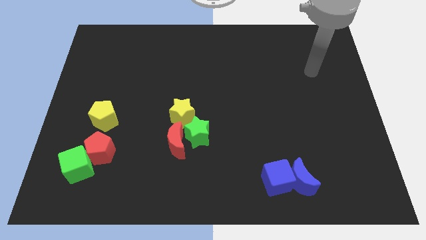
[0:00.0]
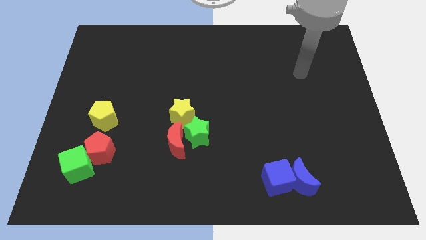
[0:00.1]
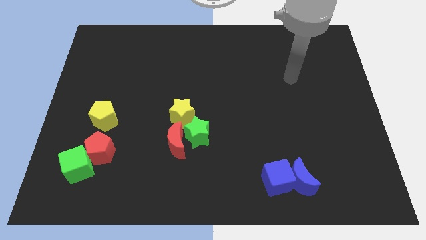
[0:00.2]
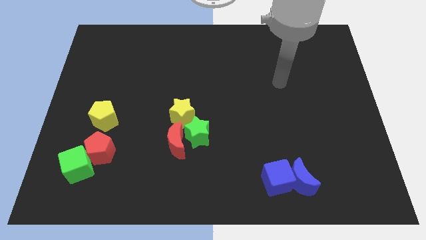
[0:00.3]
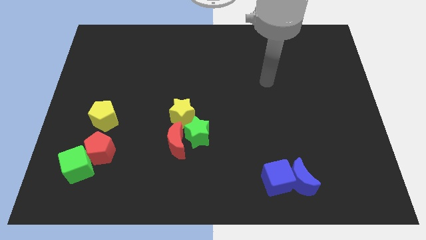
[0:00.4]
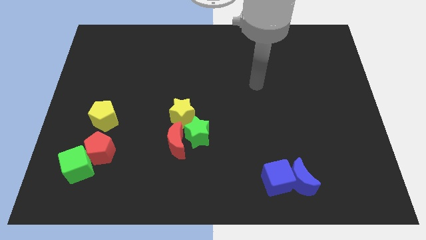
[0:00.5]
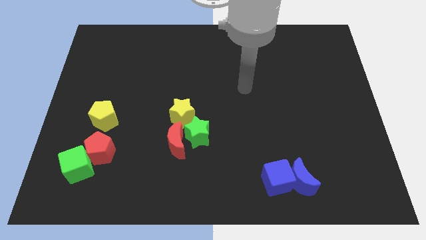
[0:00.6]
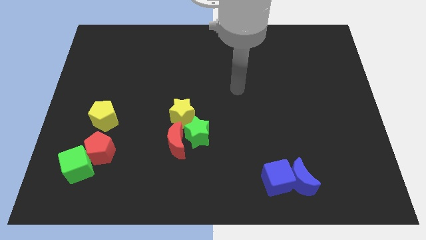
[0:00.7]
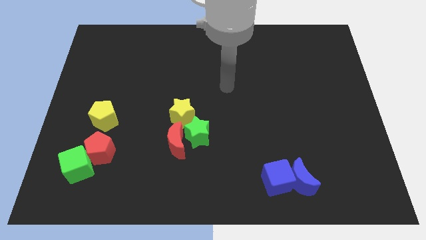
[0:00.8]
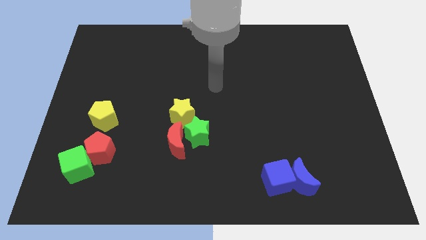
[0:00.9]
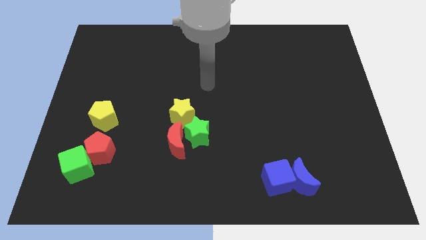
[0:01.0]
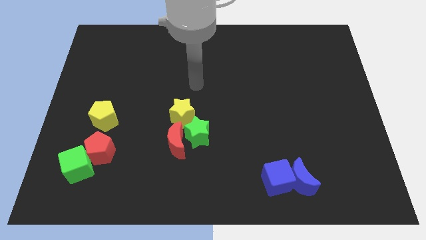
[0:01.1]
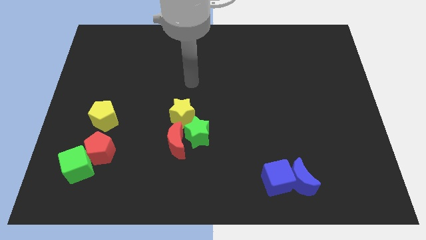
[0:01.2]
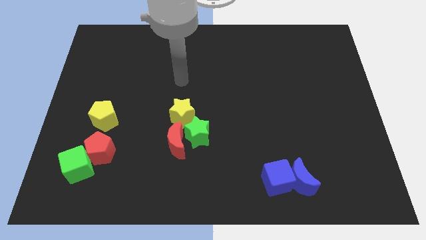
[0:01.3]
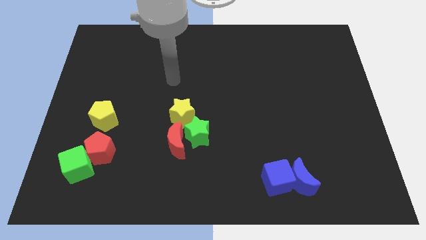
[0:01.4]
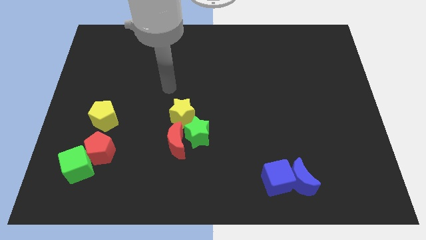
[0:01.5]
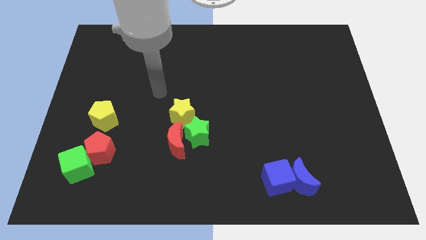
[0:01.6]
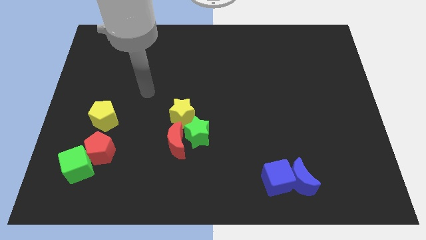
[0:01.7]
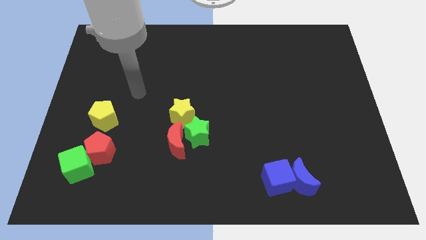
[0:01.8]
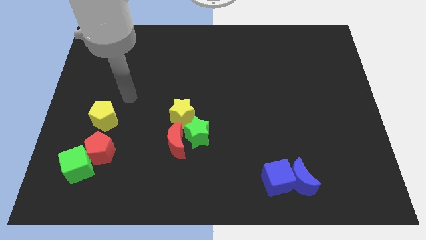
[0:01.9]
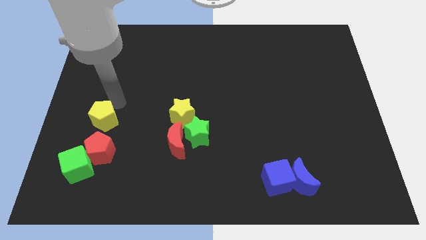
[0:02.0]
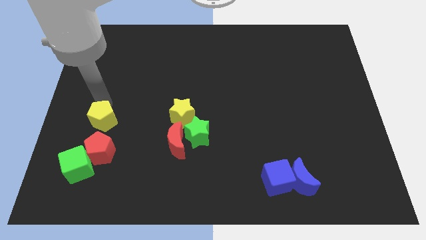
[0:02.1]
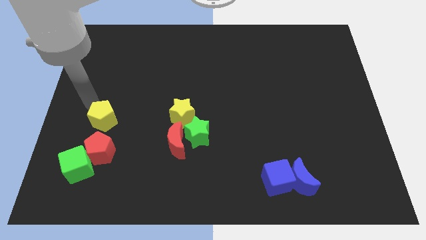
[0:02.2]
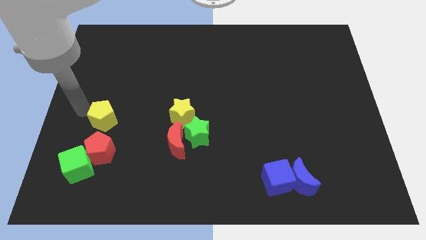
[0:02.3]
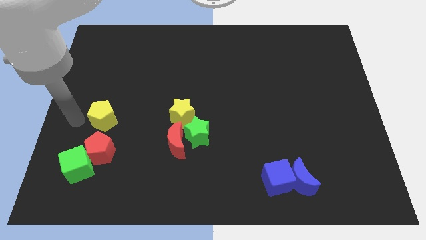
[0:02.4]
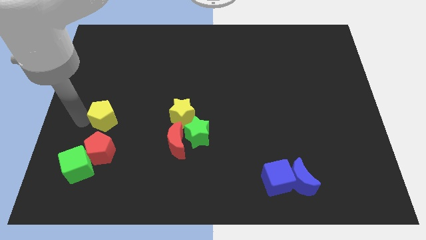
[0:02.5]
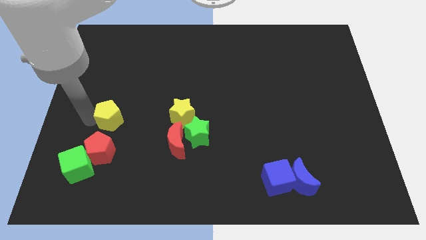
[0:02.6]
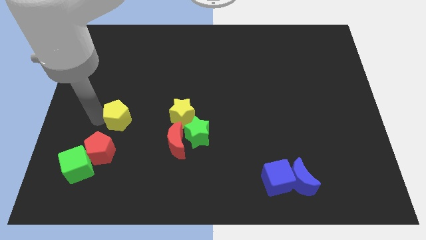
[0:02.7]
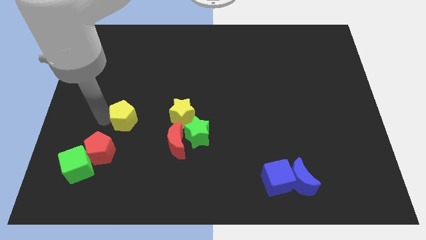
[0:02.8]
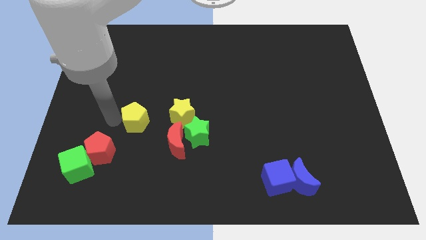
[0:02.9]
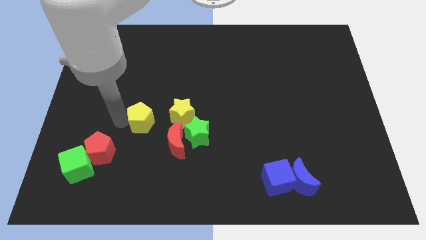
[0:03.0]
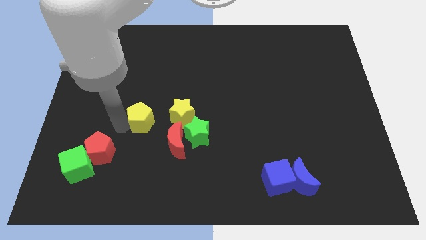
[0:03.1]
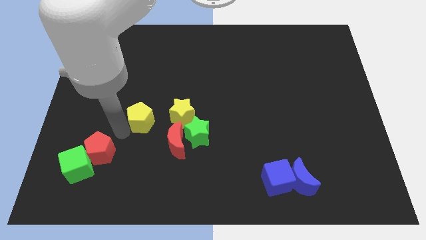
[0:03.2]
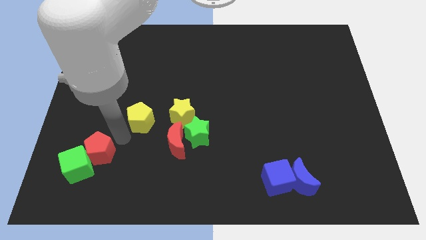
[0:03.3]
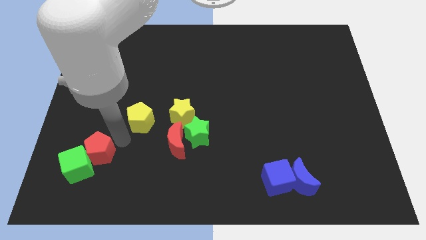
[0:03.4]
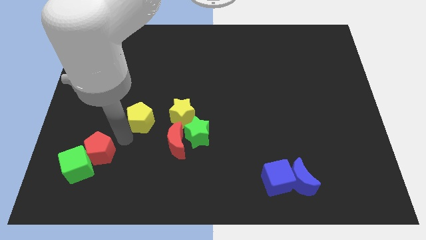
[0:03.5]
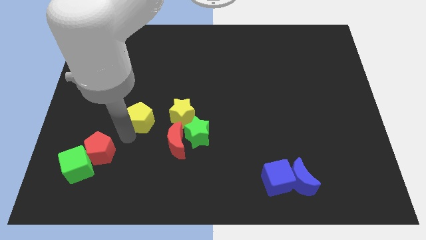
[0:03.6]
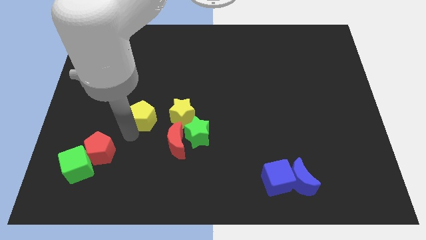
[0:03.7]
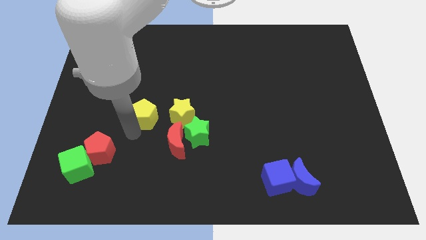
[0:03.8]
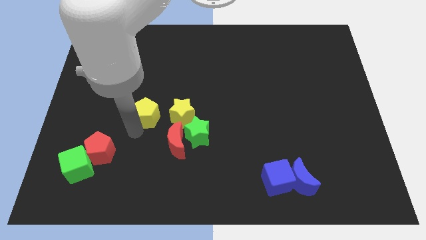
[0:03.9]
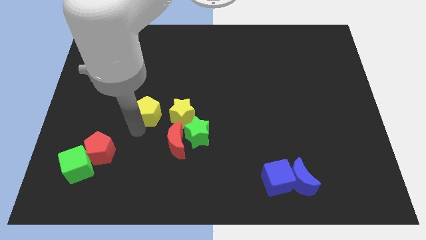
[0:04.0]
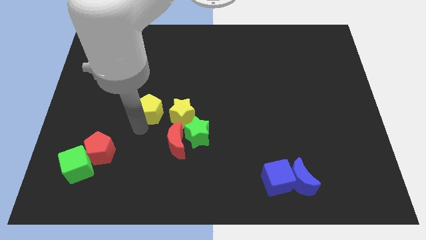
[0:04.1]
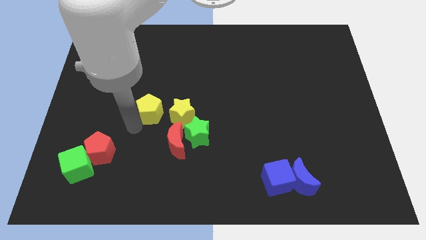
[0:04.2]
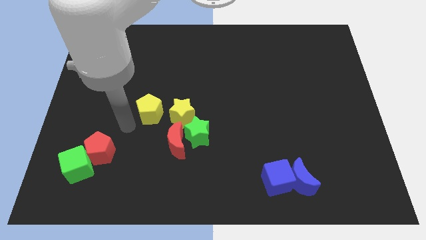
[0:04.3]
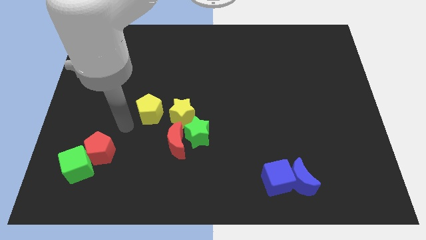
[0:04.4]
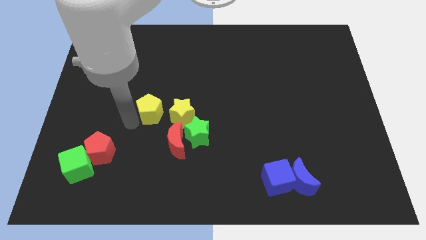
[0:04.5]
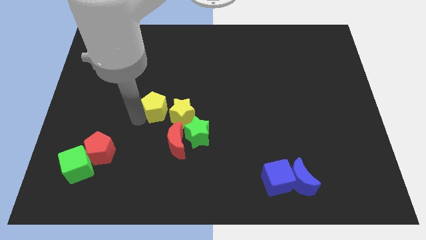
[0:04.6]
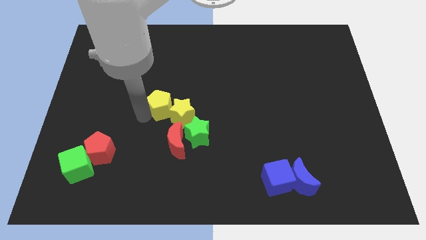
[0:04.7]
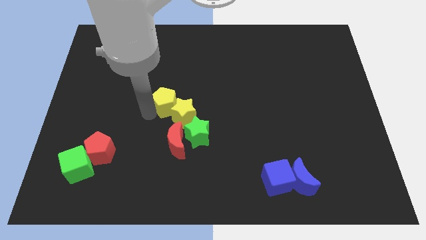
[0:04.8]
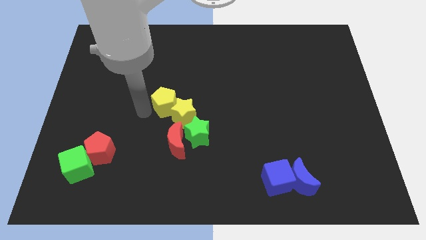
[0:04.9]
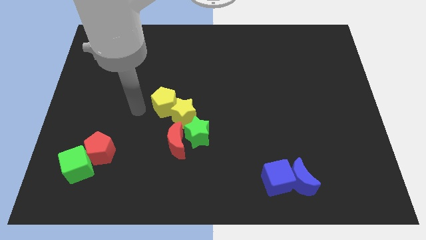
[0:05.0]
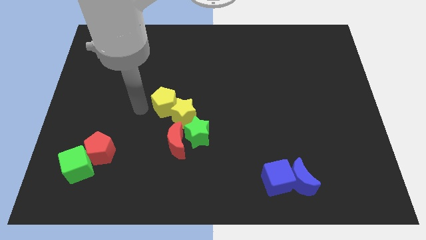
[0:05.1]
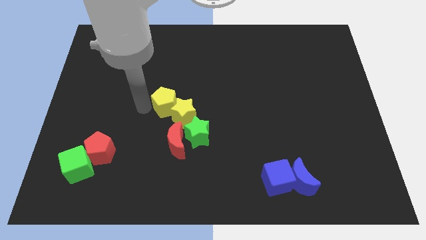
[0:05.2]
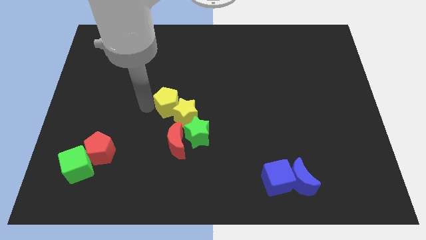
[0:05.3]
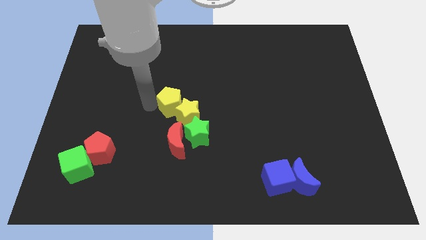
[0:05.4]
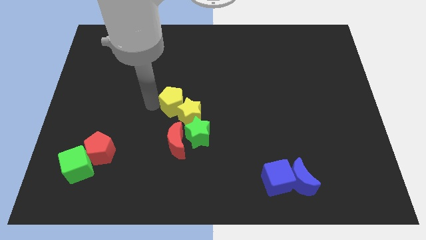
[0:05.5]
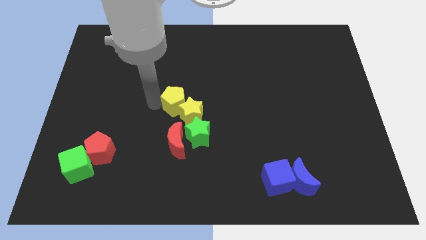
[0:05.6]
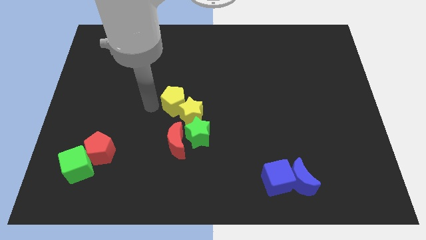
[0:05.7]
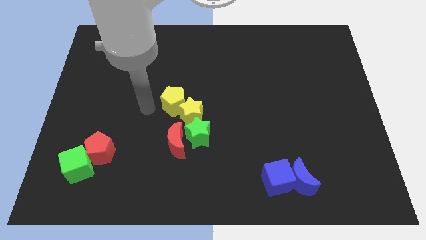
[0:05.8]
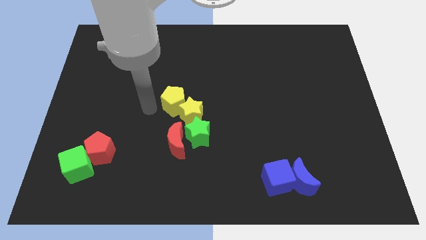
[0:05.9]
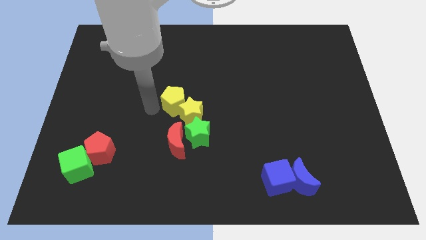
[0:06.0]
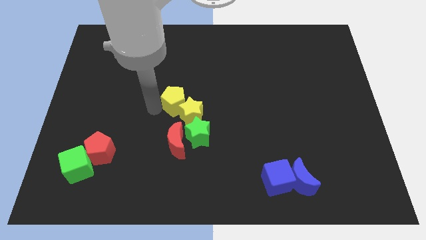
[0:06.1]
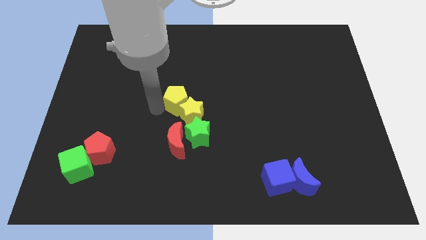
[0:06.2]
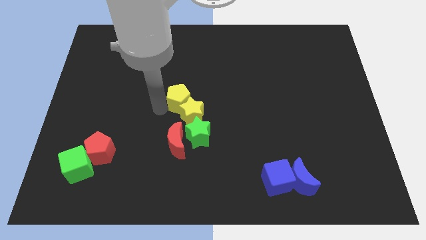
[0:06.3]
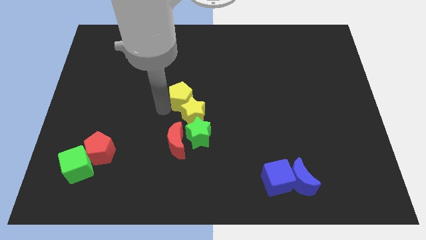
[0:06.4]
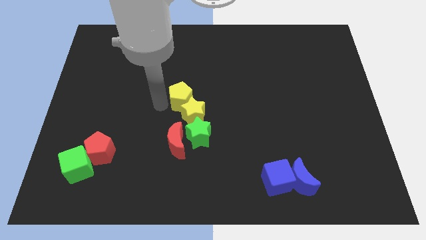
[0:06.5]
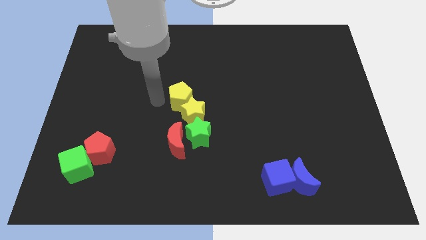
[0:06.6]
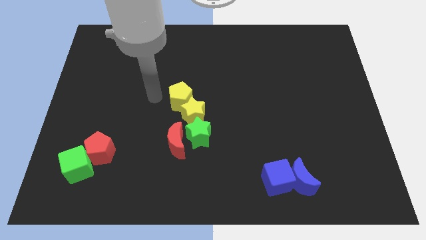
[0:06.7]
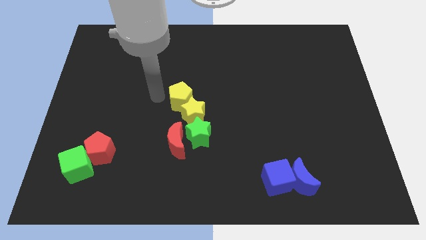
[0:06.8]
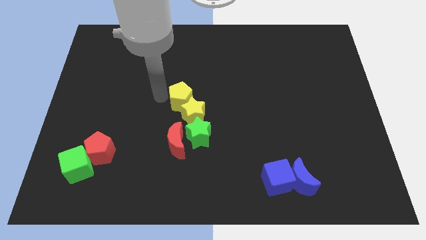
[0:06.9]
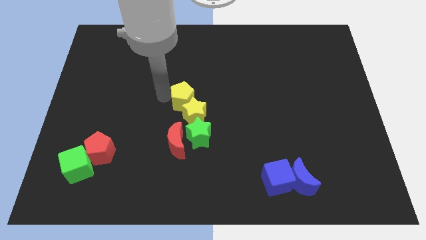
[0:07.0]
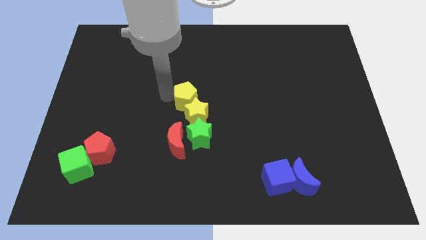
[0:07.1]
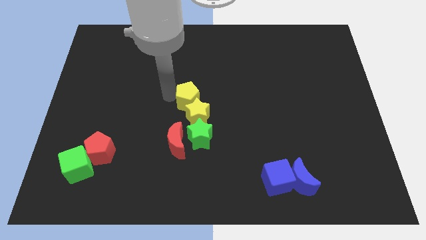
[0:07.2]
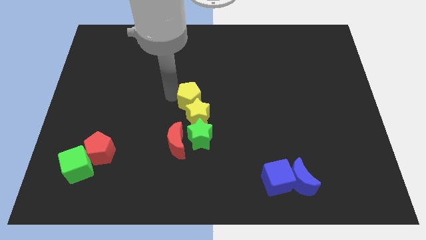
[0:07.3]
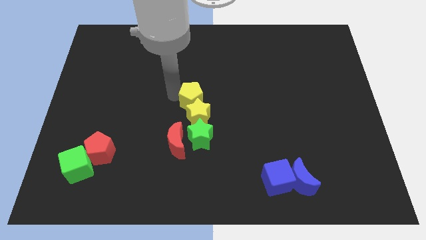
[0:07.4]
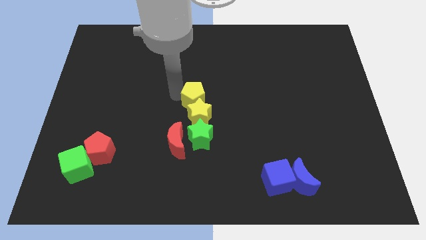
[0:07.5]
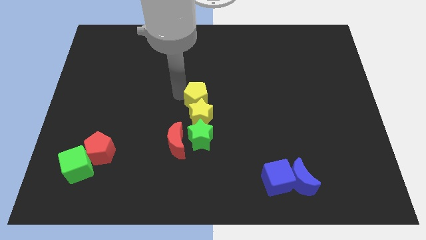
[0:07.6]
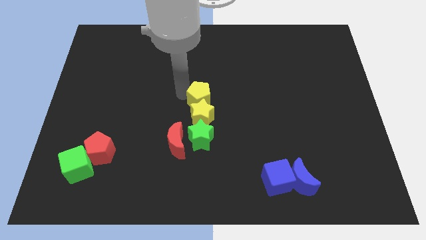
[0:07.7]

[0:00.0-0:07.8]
move the yellow pentagon to the right

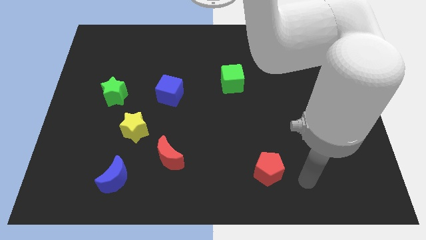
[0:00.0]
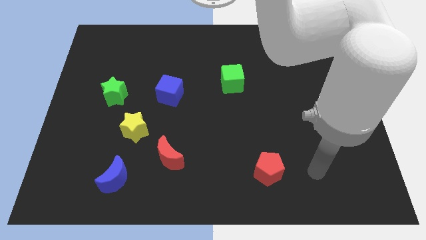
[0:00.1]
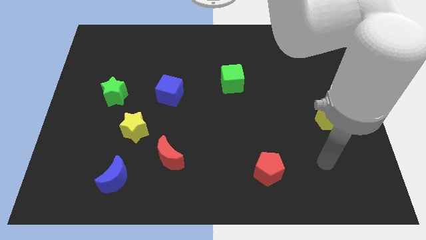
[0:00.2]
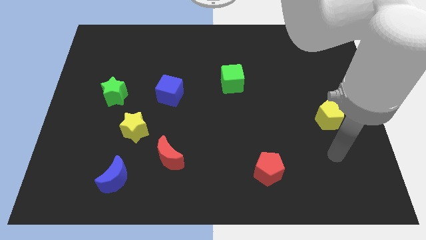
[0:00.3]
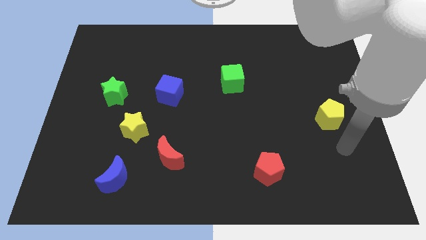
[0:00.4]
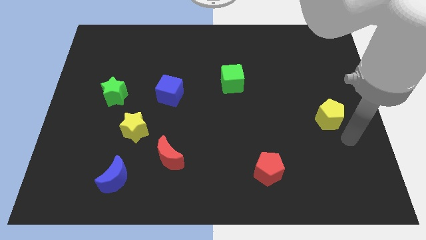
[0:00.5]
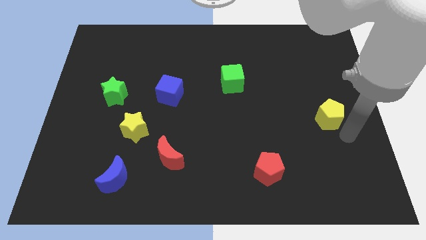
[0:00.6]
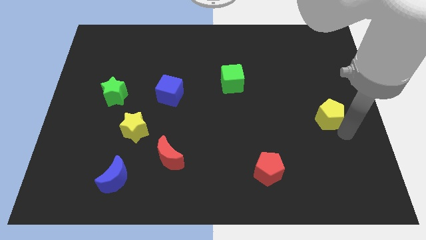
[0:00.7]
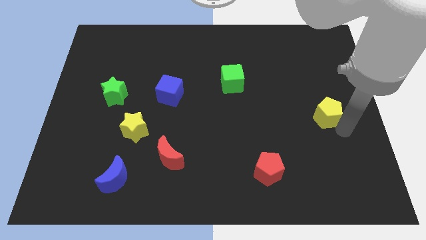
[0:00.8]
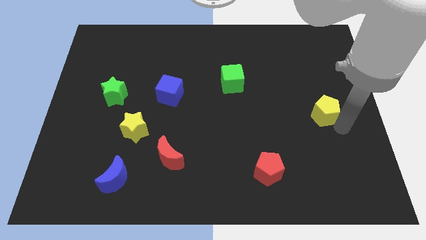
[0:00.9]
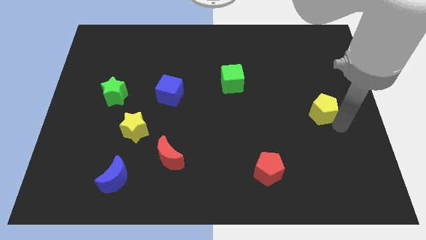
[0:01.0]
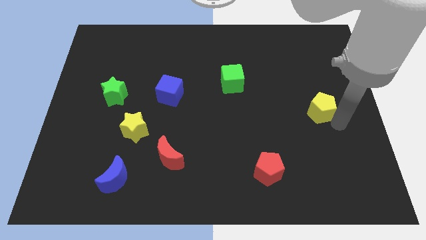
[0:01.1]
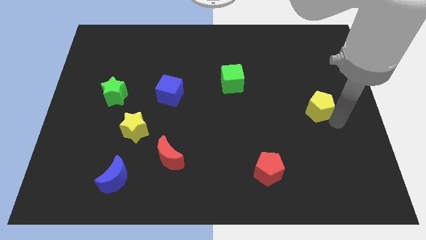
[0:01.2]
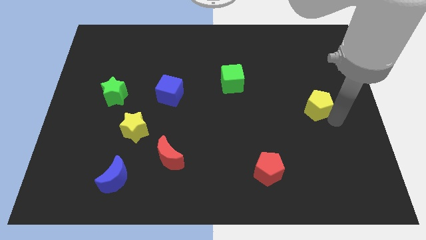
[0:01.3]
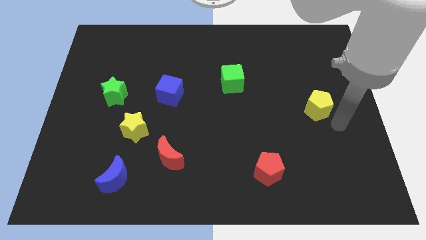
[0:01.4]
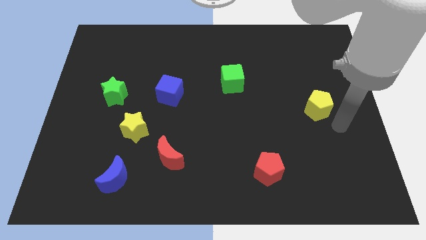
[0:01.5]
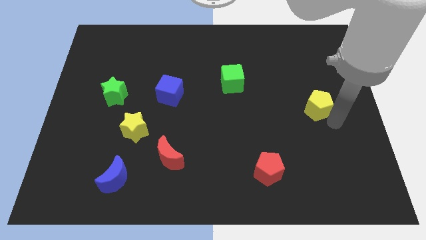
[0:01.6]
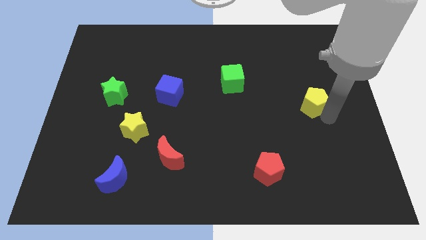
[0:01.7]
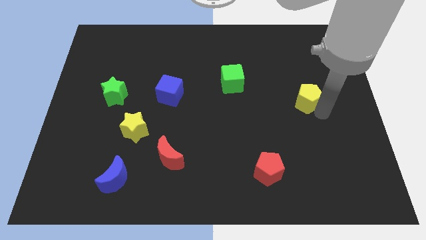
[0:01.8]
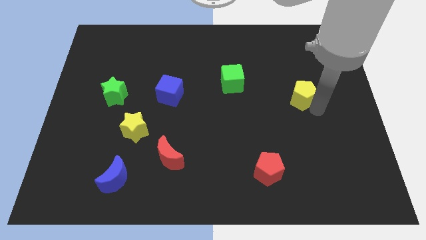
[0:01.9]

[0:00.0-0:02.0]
slide the yellow pentagon upwards and left slightly
